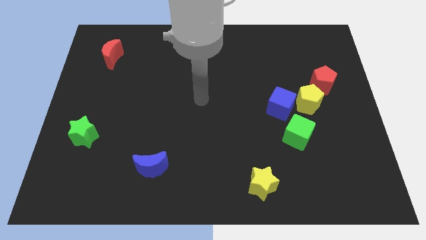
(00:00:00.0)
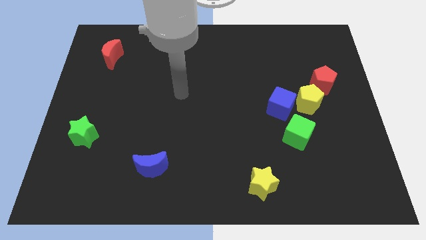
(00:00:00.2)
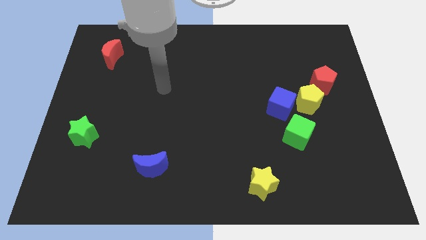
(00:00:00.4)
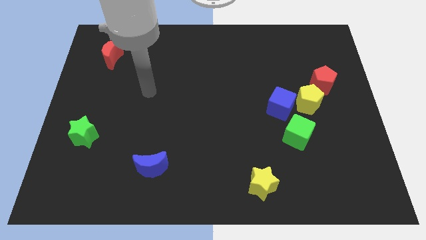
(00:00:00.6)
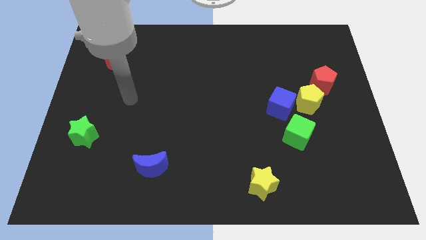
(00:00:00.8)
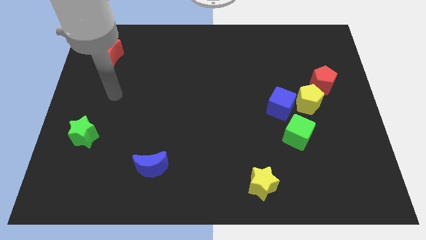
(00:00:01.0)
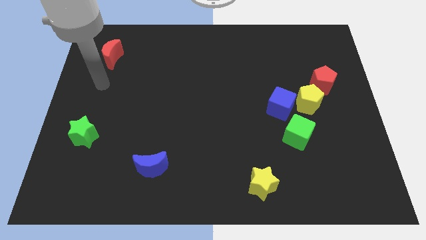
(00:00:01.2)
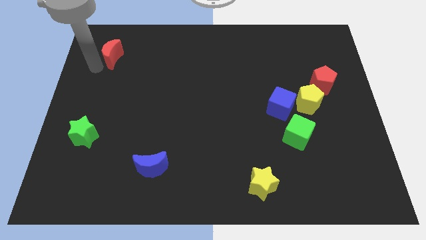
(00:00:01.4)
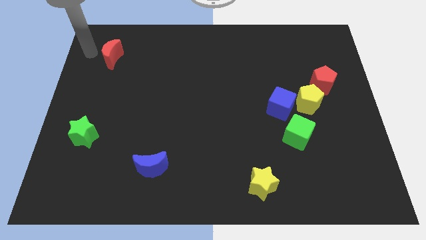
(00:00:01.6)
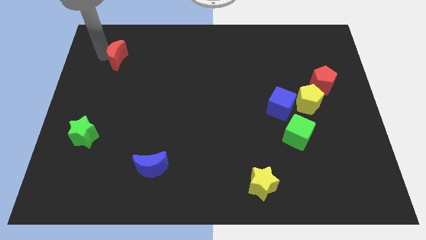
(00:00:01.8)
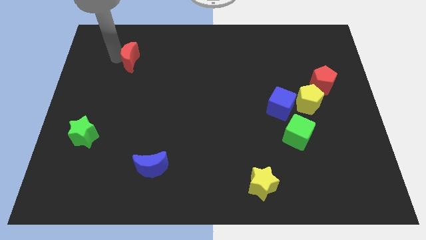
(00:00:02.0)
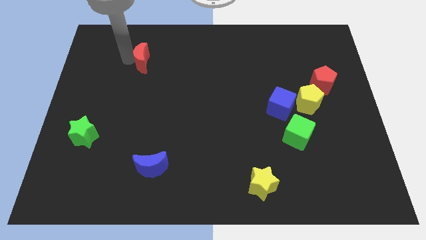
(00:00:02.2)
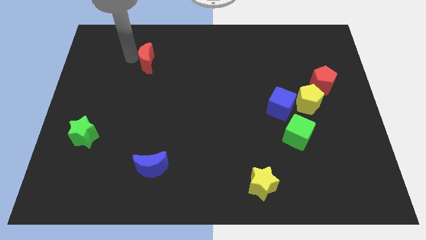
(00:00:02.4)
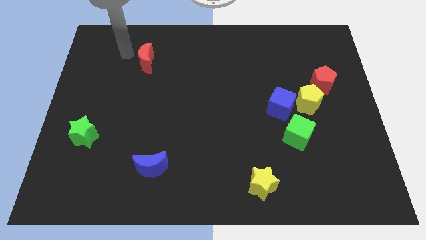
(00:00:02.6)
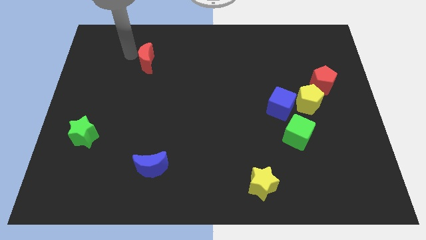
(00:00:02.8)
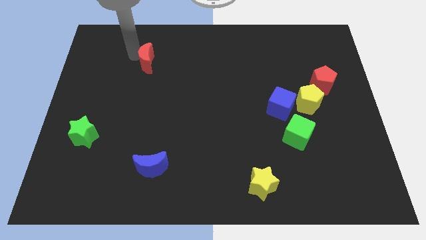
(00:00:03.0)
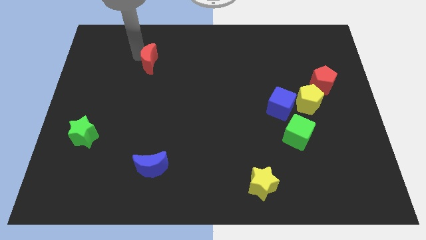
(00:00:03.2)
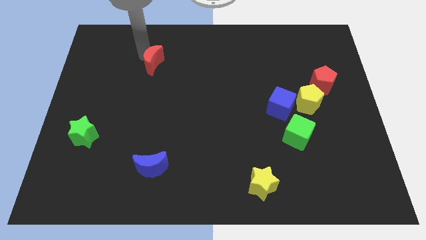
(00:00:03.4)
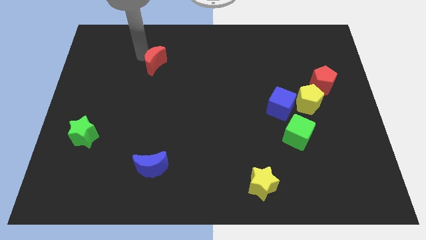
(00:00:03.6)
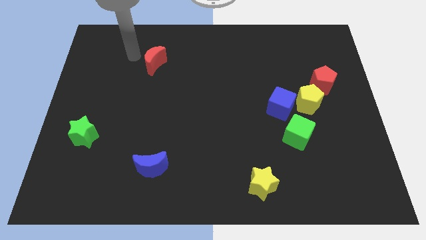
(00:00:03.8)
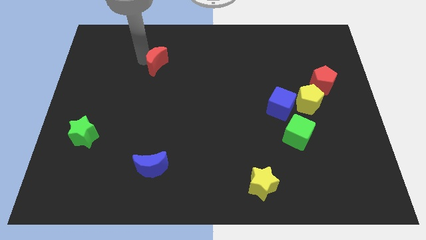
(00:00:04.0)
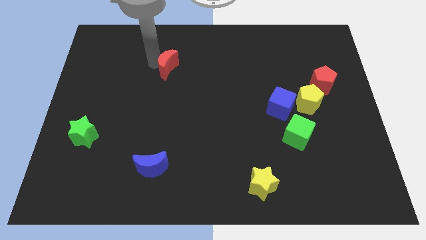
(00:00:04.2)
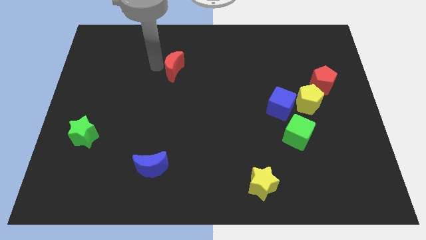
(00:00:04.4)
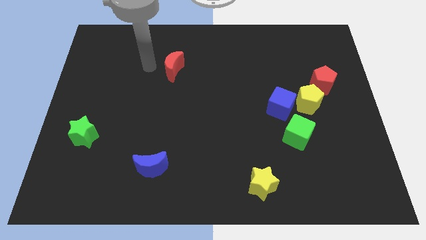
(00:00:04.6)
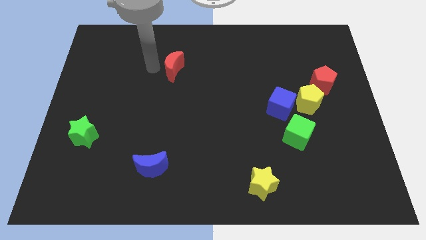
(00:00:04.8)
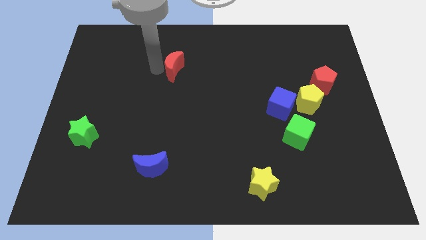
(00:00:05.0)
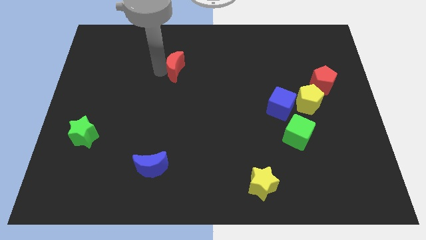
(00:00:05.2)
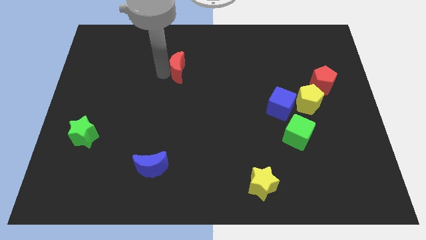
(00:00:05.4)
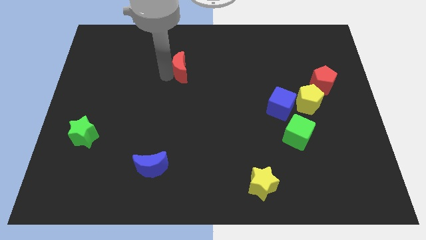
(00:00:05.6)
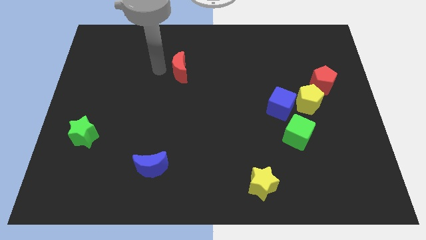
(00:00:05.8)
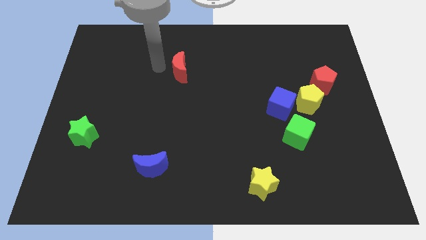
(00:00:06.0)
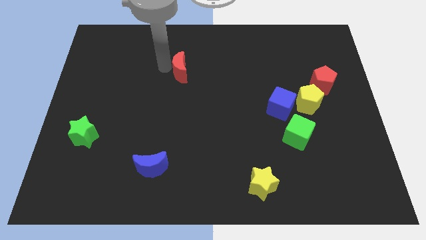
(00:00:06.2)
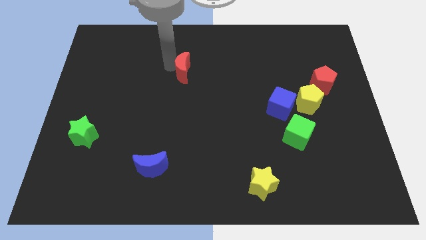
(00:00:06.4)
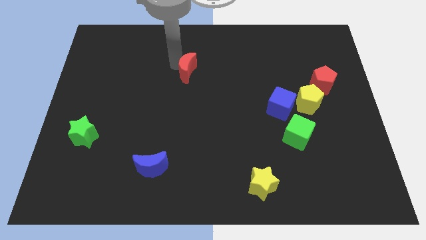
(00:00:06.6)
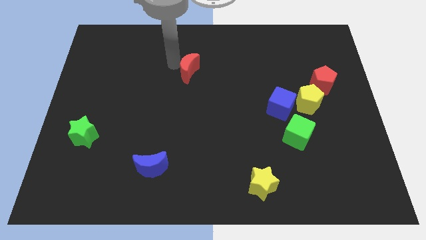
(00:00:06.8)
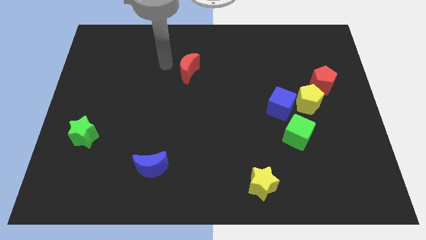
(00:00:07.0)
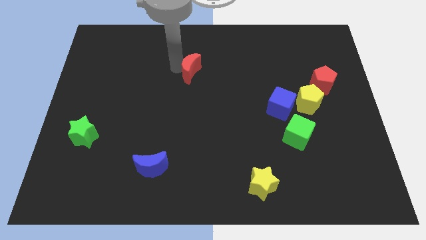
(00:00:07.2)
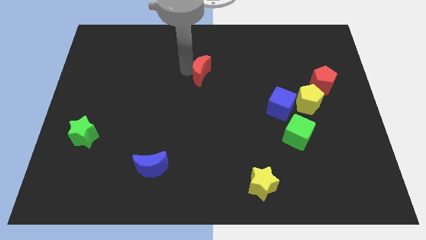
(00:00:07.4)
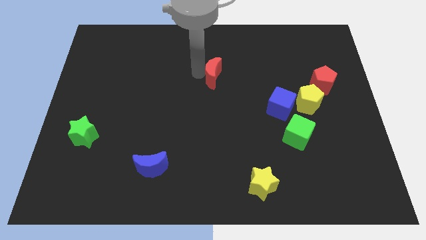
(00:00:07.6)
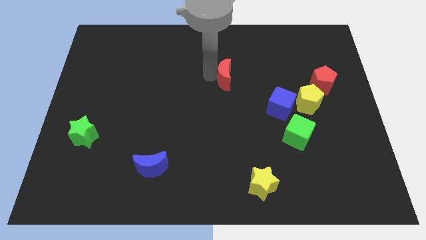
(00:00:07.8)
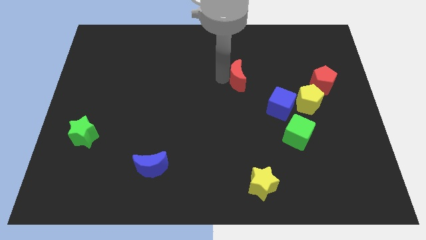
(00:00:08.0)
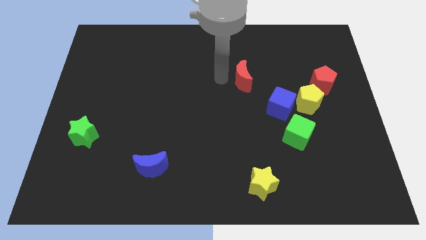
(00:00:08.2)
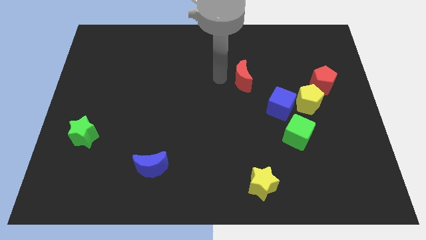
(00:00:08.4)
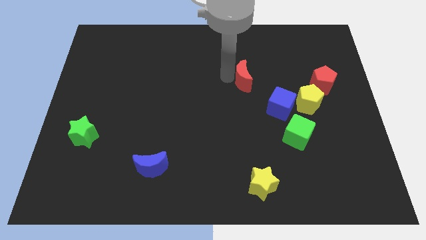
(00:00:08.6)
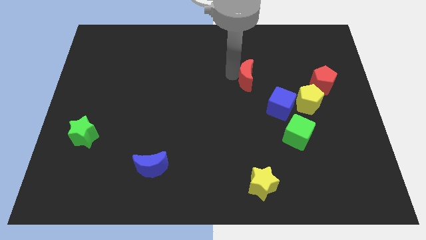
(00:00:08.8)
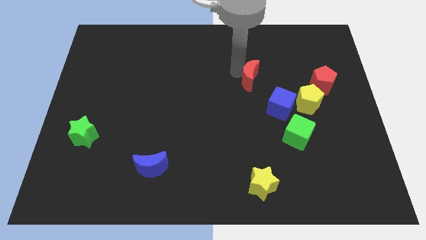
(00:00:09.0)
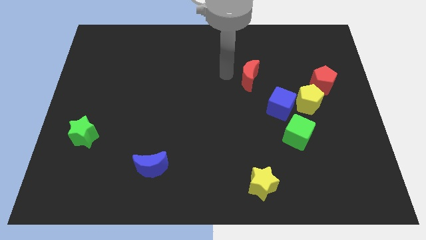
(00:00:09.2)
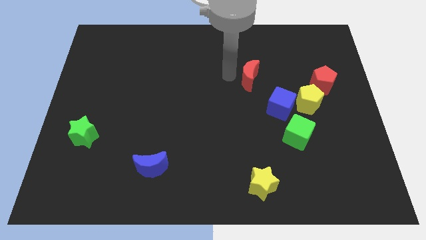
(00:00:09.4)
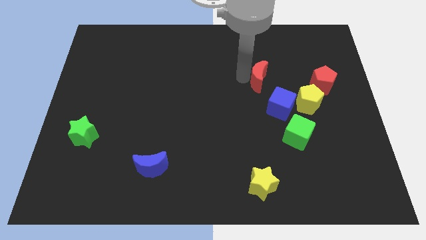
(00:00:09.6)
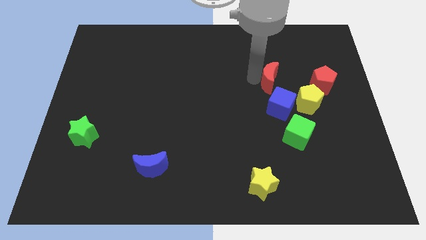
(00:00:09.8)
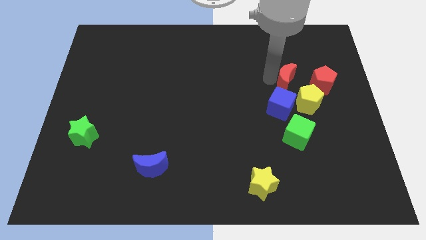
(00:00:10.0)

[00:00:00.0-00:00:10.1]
put the red moon to the top right of the blue cube

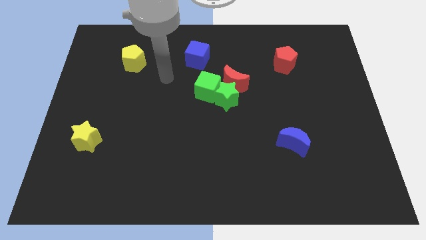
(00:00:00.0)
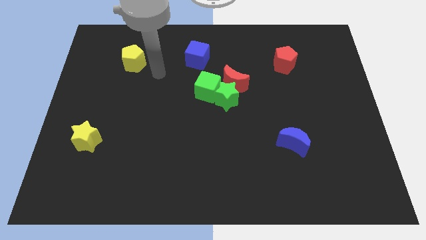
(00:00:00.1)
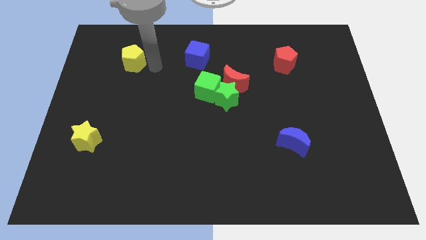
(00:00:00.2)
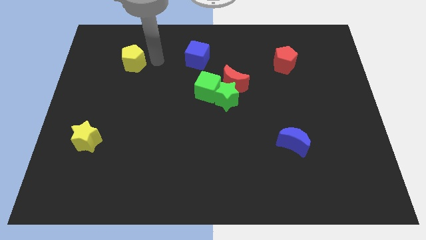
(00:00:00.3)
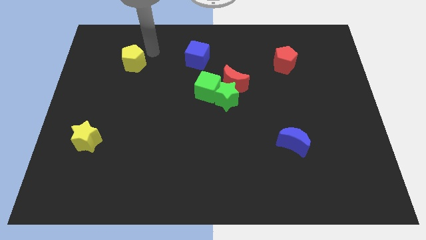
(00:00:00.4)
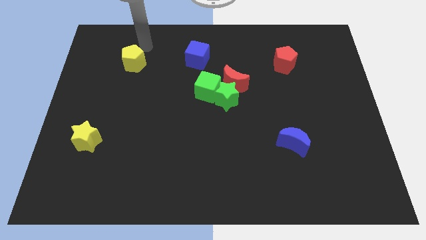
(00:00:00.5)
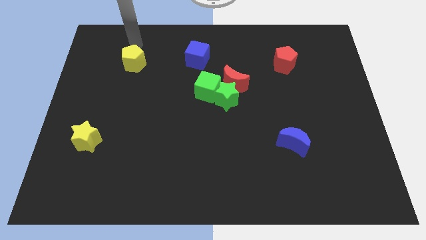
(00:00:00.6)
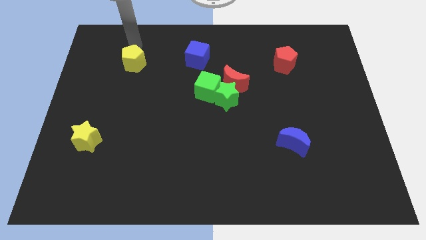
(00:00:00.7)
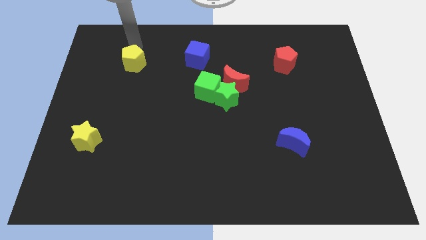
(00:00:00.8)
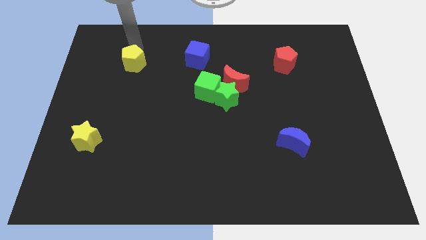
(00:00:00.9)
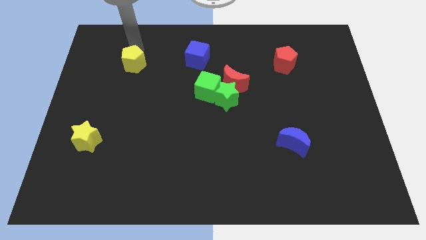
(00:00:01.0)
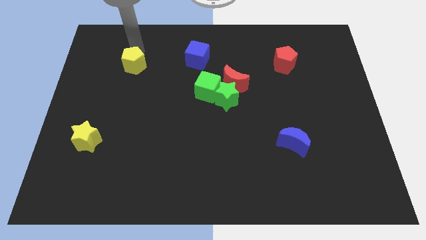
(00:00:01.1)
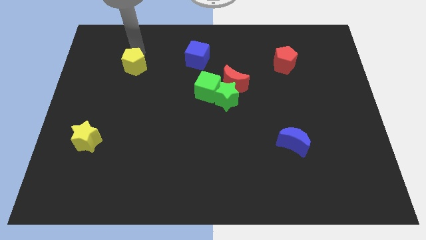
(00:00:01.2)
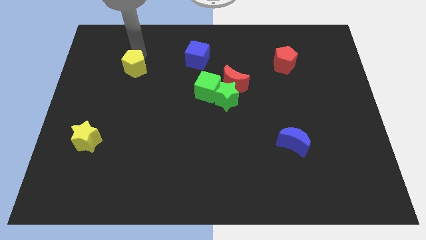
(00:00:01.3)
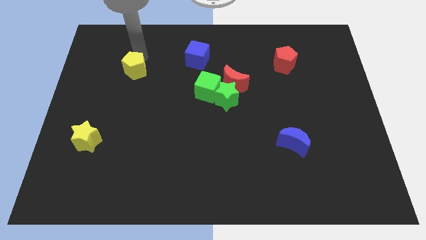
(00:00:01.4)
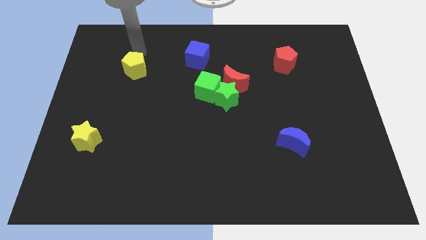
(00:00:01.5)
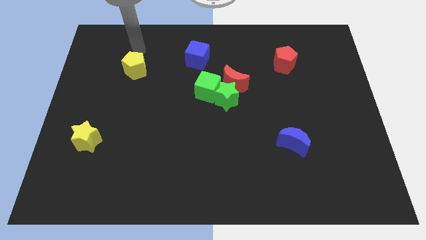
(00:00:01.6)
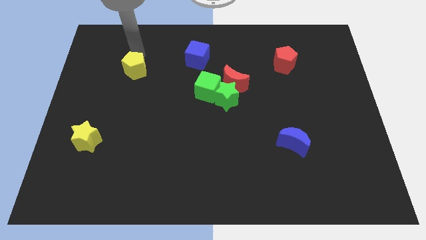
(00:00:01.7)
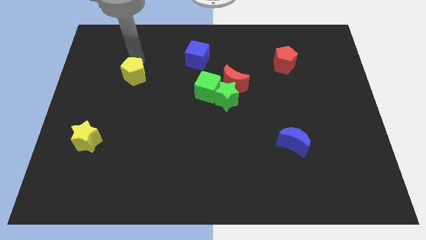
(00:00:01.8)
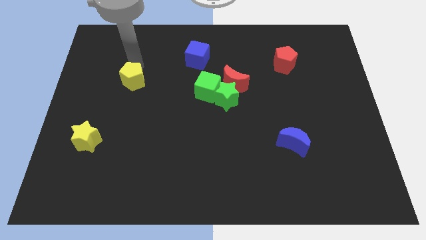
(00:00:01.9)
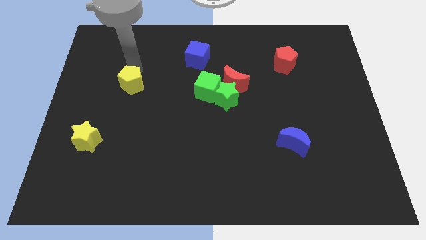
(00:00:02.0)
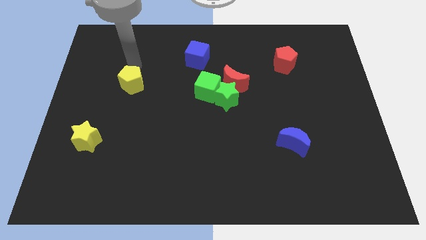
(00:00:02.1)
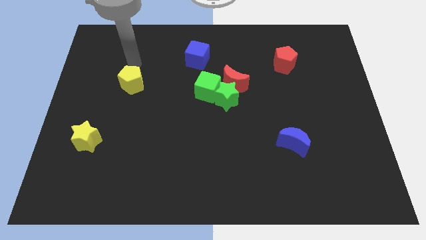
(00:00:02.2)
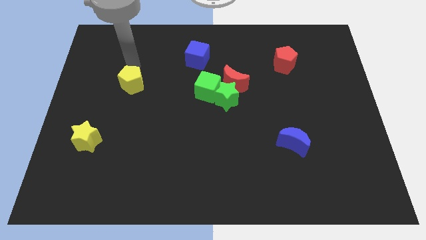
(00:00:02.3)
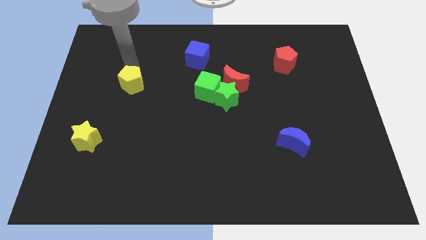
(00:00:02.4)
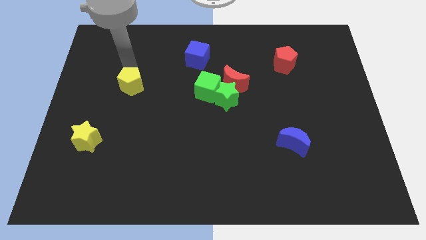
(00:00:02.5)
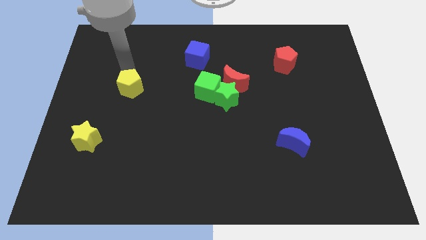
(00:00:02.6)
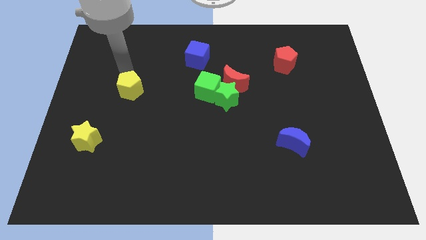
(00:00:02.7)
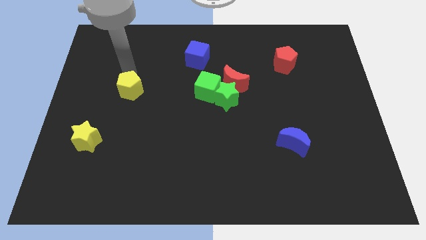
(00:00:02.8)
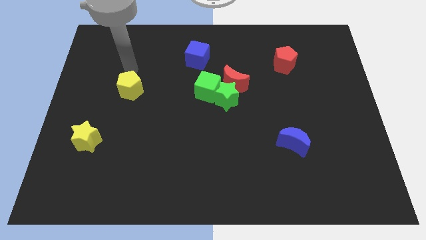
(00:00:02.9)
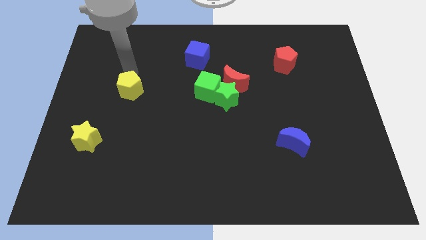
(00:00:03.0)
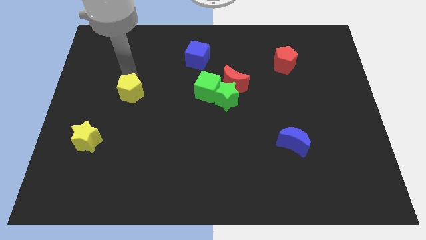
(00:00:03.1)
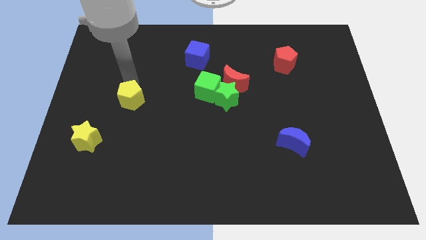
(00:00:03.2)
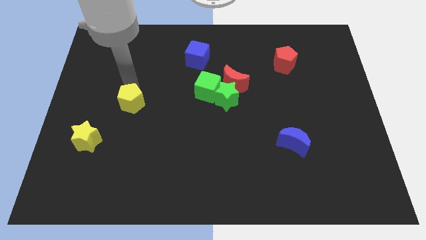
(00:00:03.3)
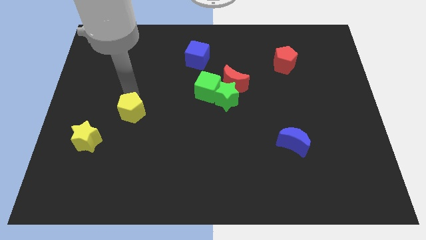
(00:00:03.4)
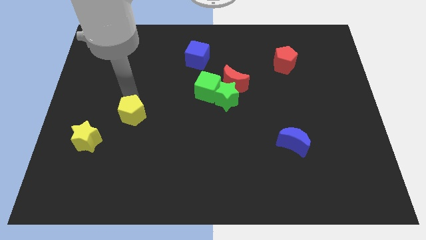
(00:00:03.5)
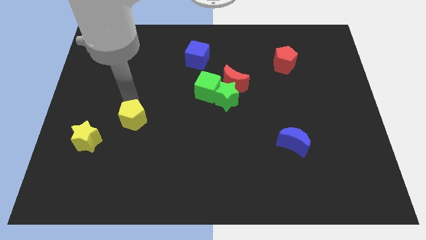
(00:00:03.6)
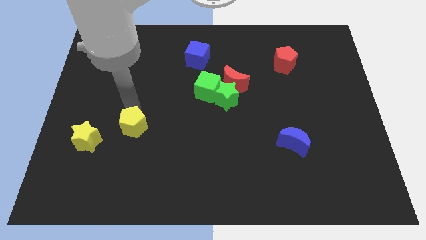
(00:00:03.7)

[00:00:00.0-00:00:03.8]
push the yellow pentagon just right of the yellow star
